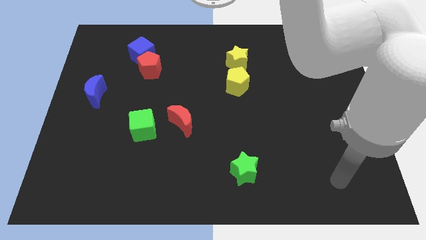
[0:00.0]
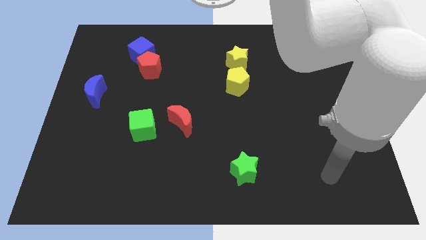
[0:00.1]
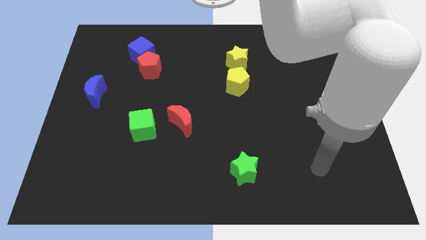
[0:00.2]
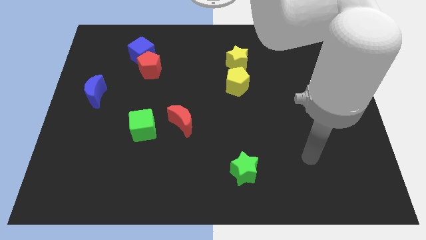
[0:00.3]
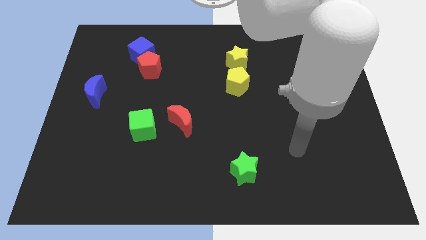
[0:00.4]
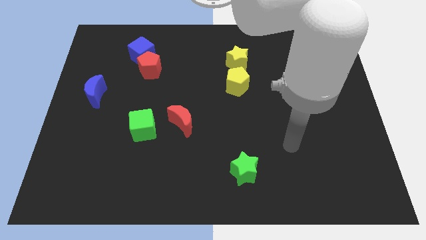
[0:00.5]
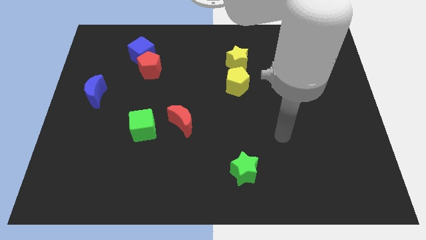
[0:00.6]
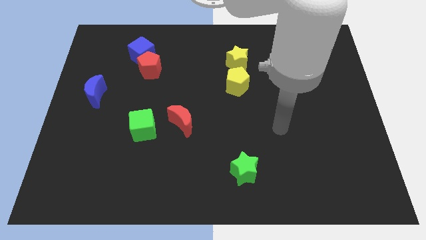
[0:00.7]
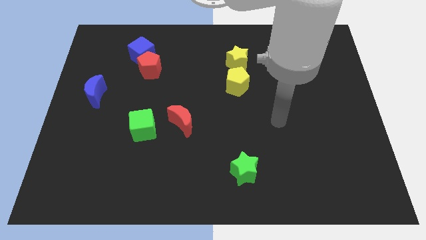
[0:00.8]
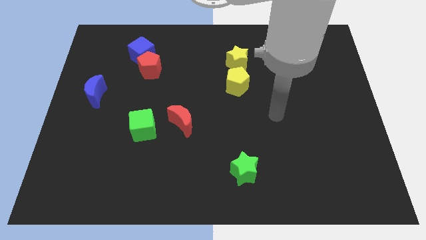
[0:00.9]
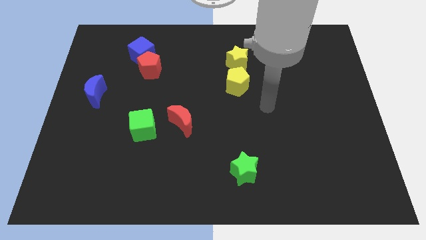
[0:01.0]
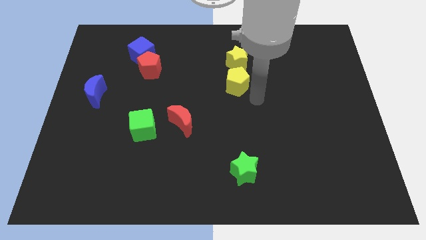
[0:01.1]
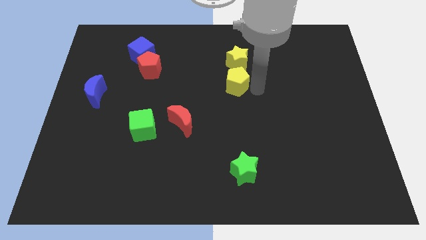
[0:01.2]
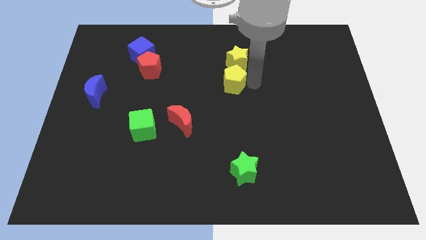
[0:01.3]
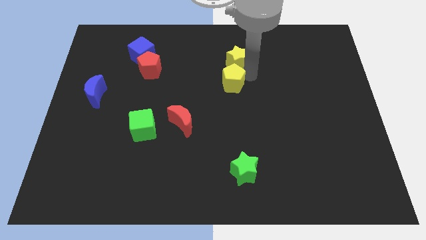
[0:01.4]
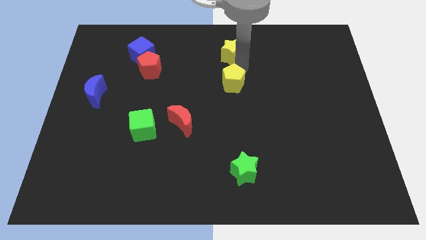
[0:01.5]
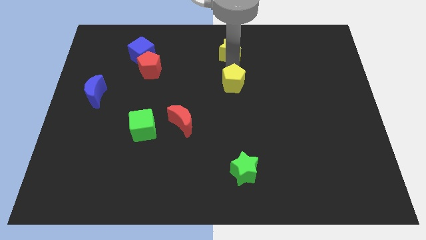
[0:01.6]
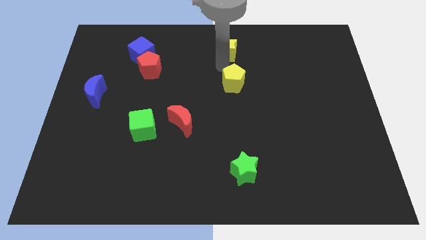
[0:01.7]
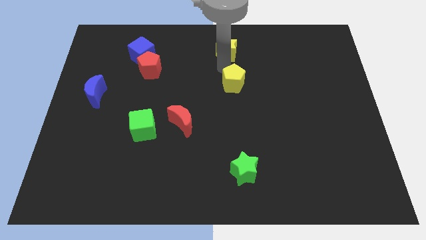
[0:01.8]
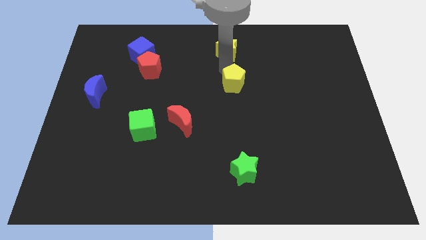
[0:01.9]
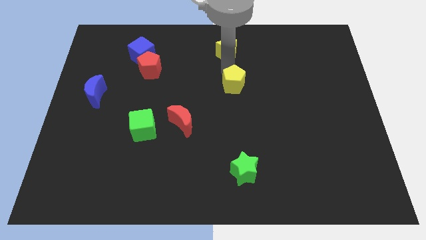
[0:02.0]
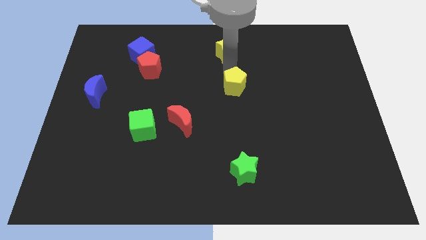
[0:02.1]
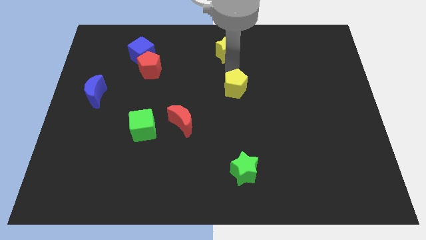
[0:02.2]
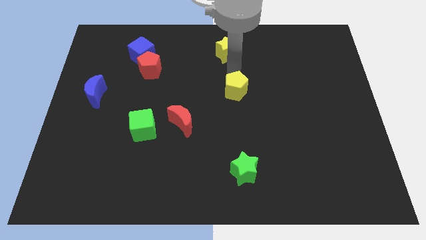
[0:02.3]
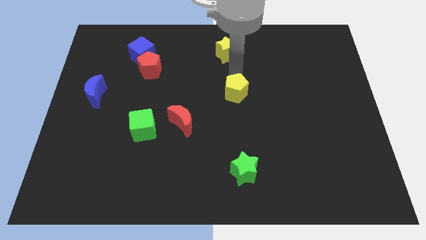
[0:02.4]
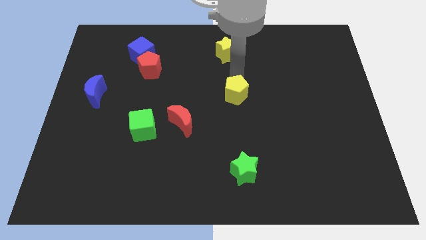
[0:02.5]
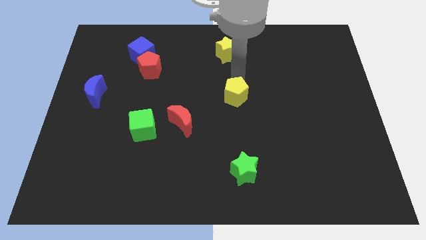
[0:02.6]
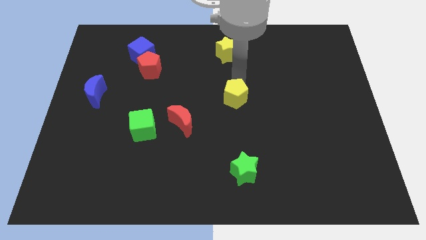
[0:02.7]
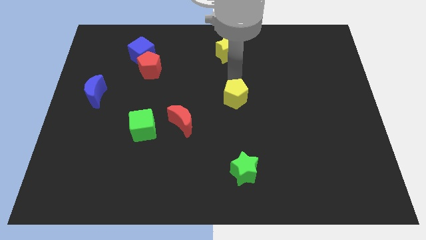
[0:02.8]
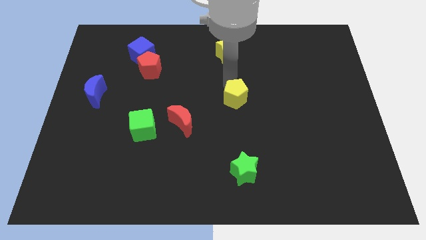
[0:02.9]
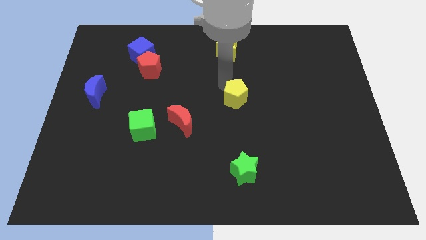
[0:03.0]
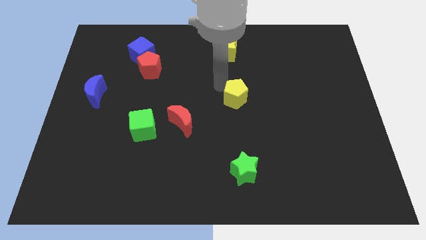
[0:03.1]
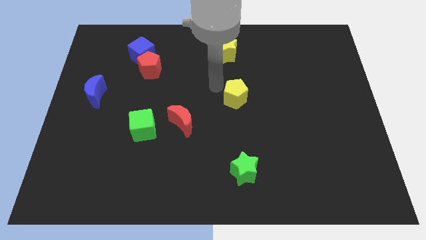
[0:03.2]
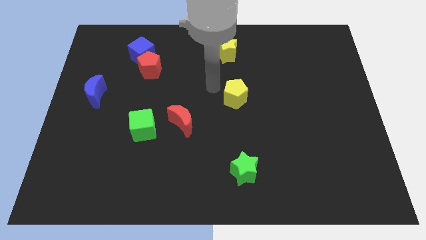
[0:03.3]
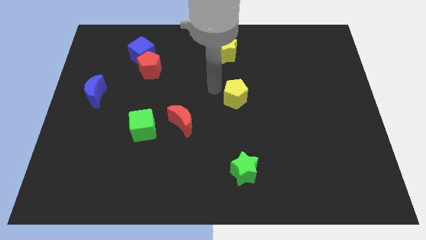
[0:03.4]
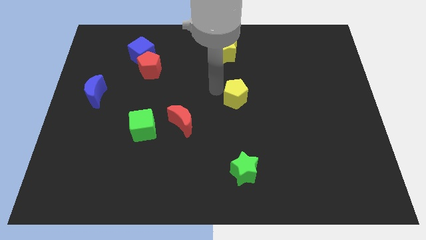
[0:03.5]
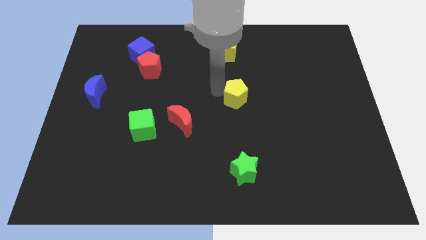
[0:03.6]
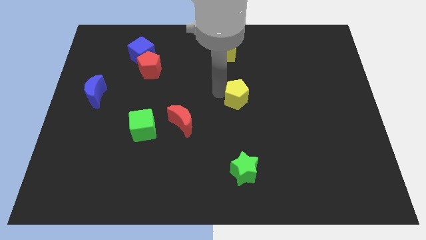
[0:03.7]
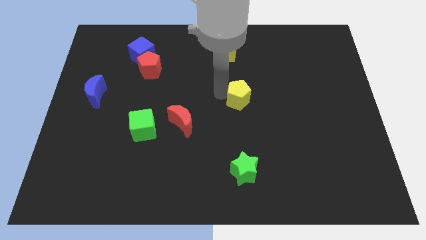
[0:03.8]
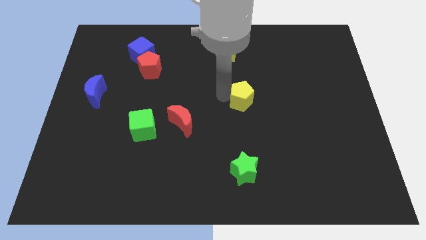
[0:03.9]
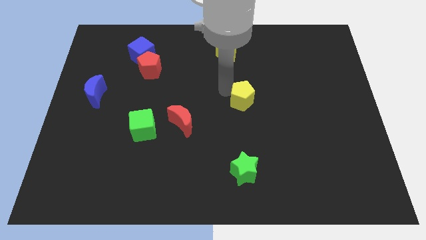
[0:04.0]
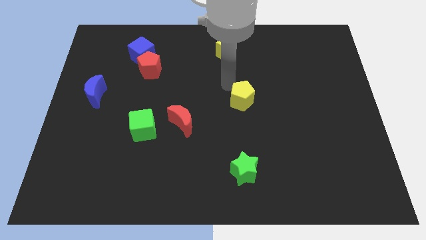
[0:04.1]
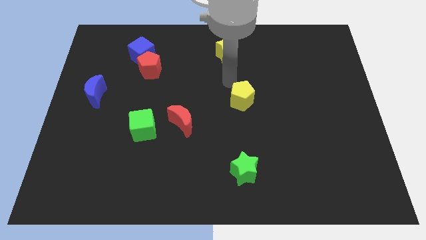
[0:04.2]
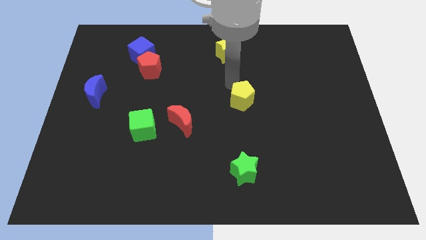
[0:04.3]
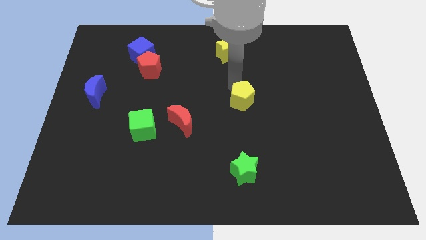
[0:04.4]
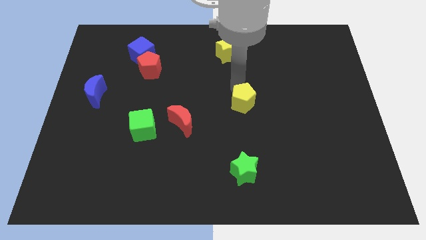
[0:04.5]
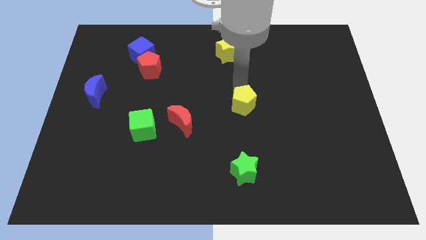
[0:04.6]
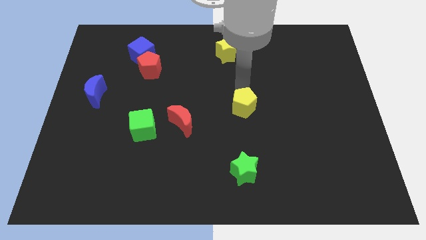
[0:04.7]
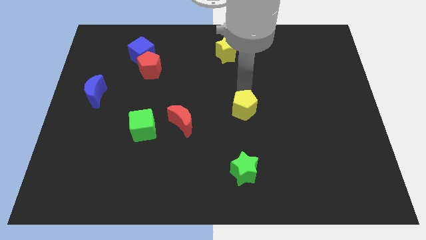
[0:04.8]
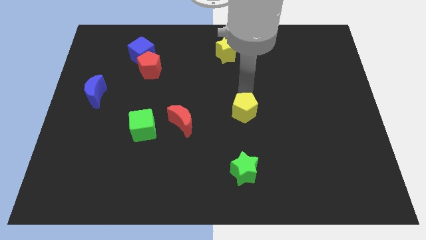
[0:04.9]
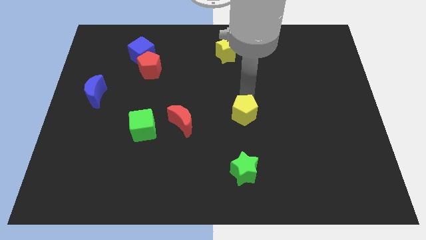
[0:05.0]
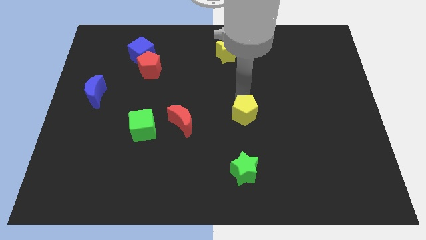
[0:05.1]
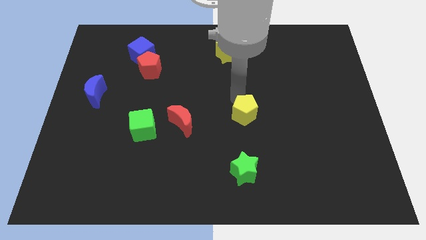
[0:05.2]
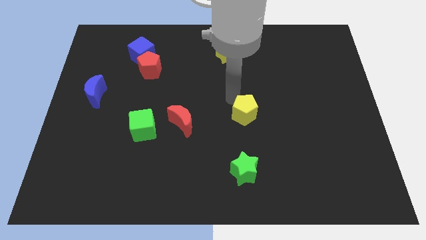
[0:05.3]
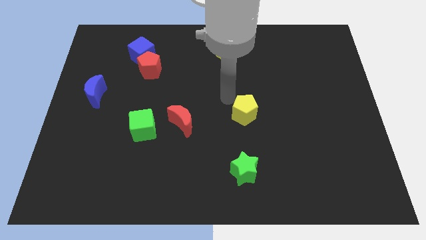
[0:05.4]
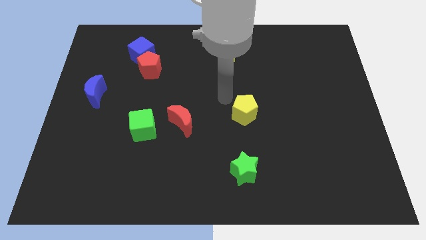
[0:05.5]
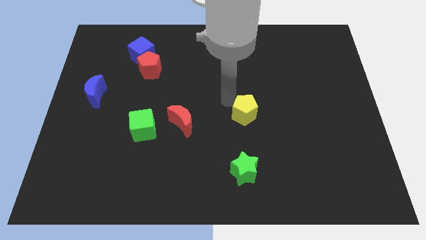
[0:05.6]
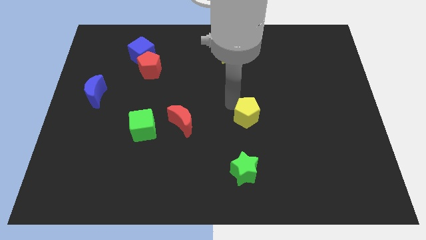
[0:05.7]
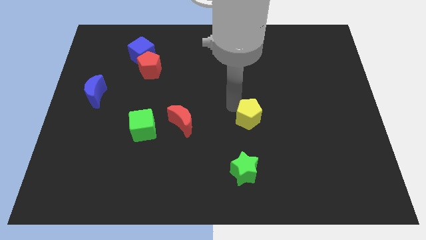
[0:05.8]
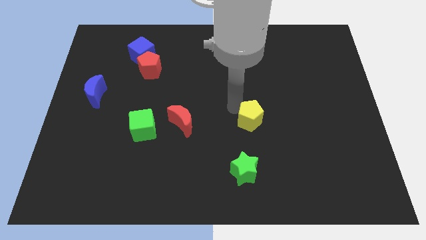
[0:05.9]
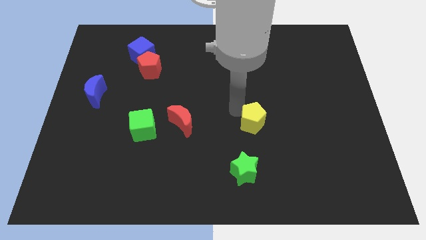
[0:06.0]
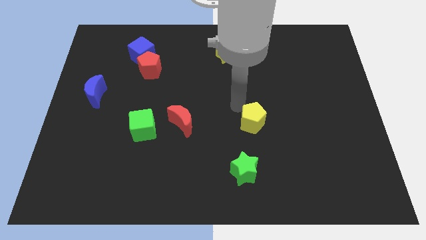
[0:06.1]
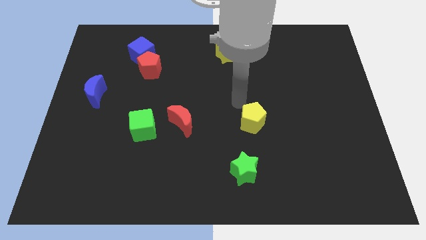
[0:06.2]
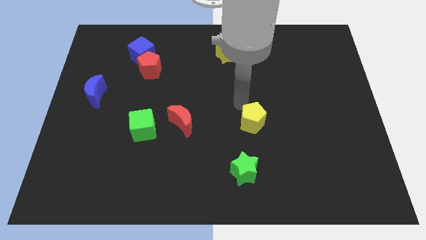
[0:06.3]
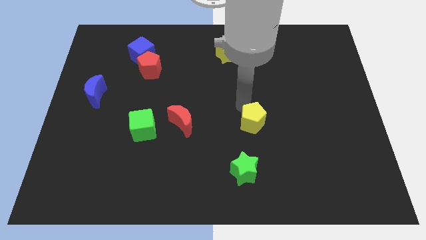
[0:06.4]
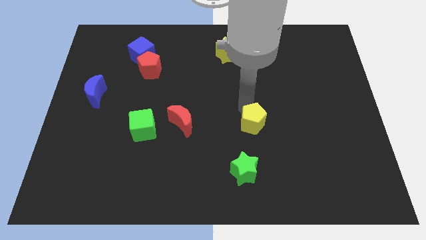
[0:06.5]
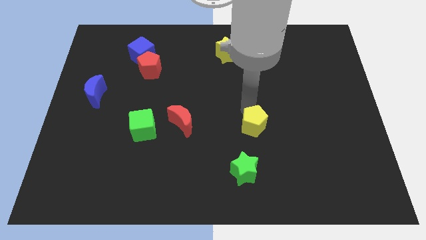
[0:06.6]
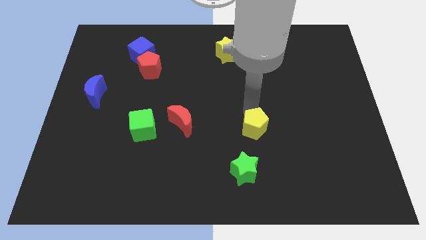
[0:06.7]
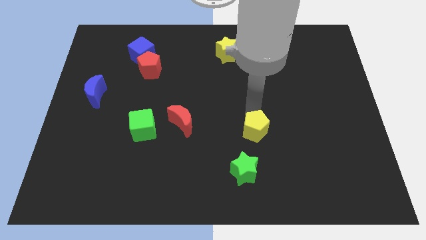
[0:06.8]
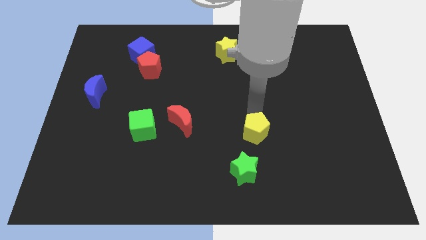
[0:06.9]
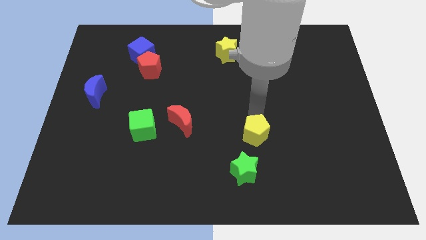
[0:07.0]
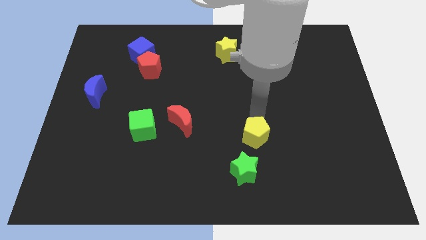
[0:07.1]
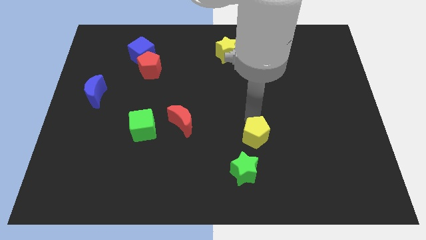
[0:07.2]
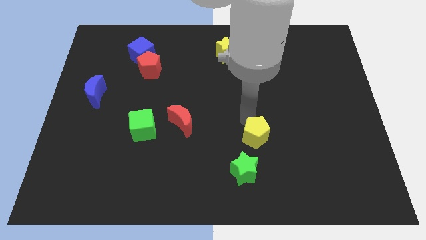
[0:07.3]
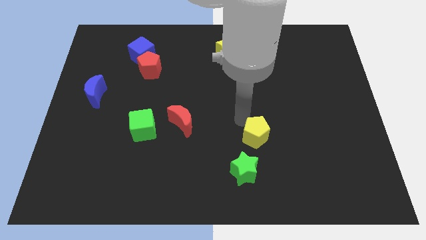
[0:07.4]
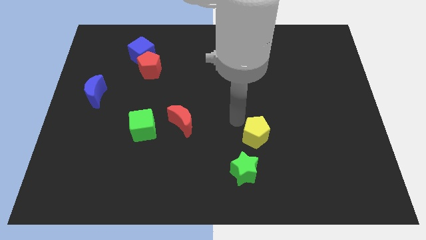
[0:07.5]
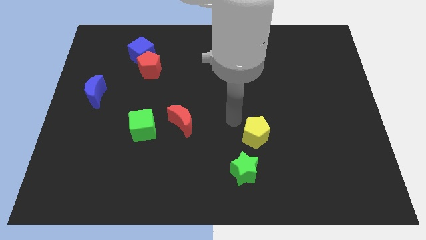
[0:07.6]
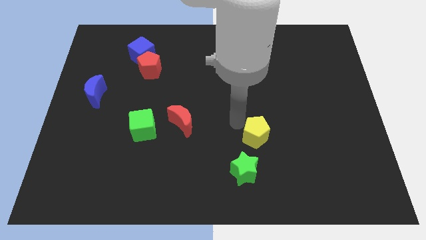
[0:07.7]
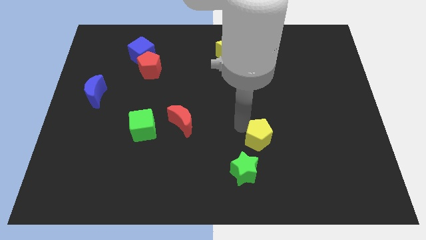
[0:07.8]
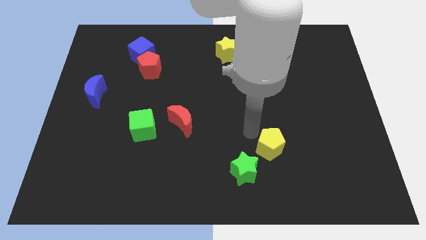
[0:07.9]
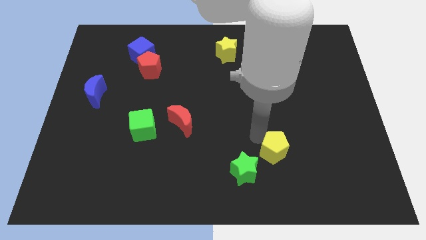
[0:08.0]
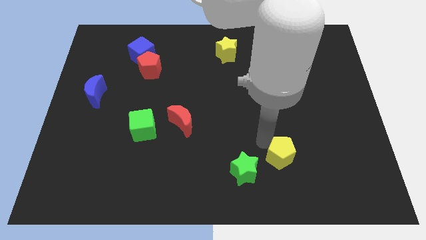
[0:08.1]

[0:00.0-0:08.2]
push the yellow pentagon to the right of the green star
